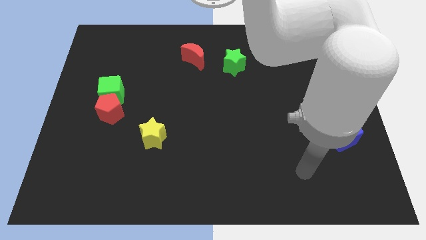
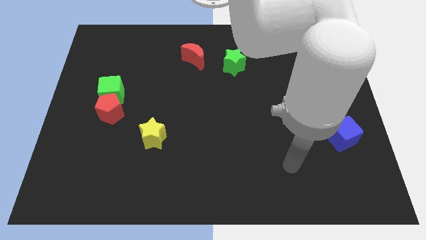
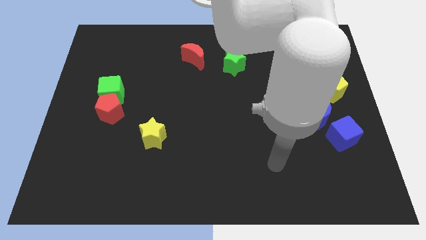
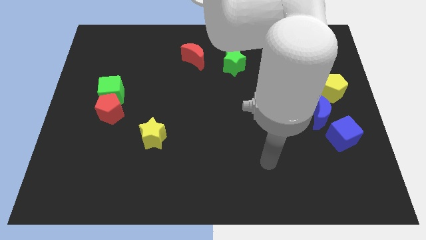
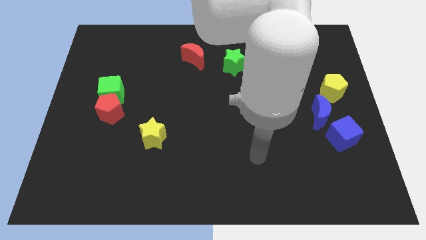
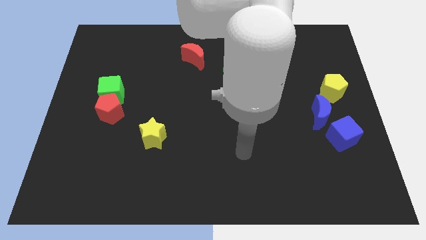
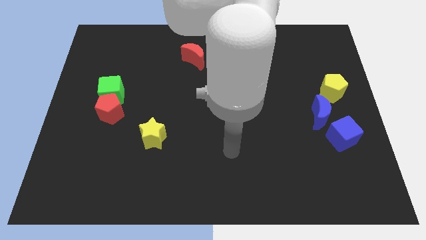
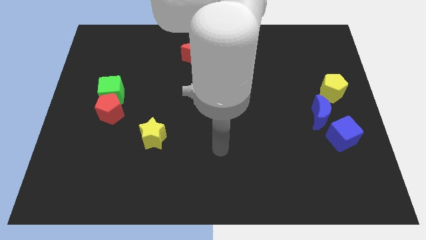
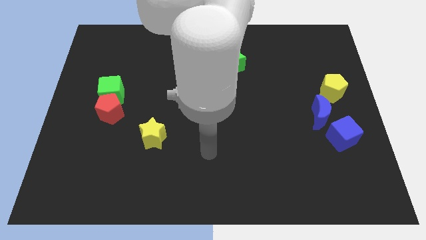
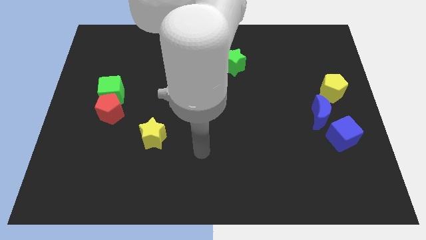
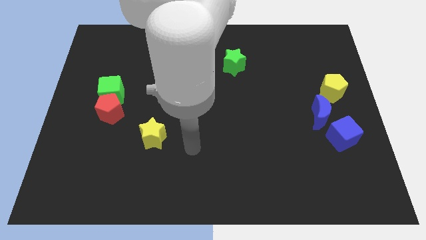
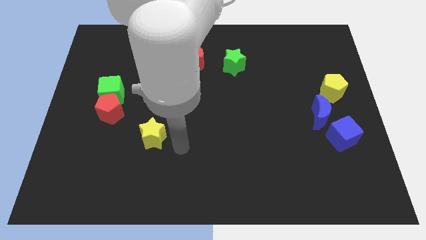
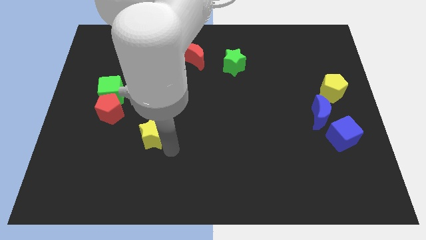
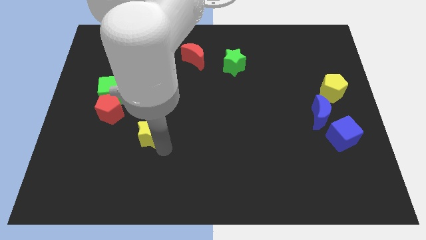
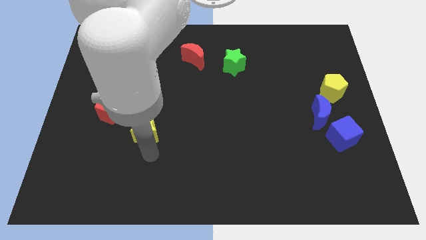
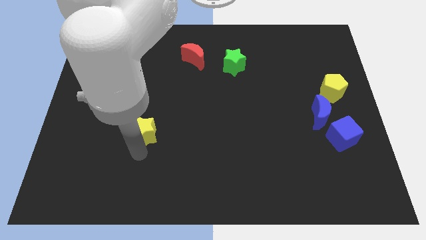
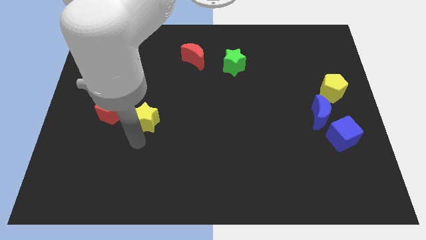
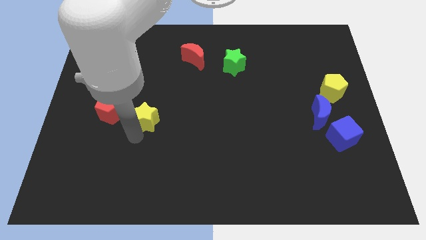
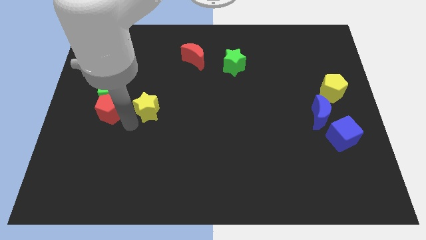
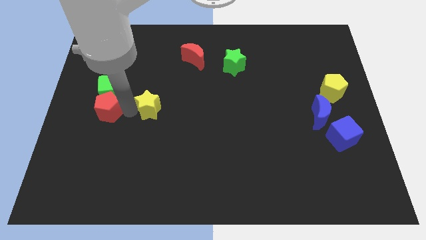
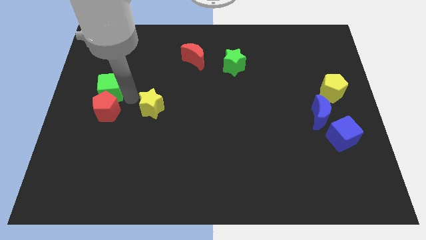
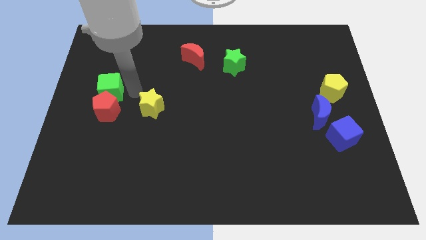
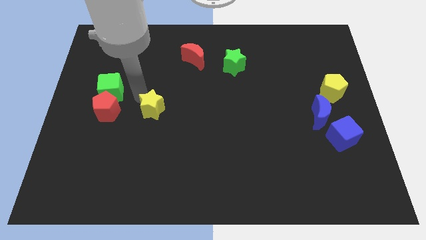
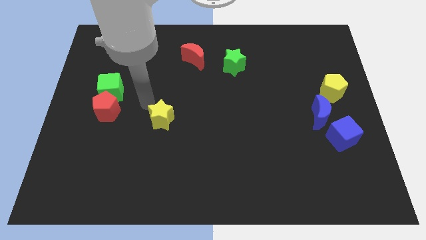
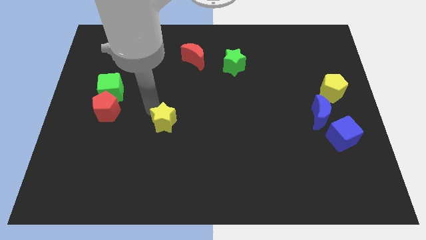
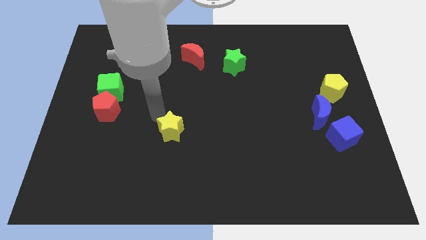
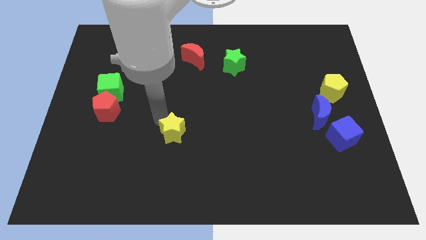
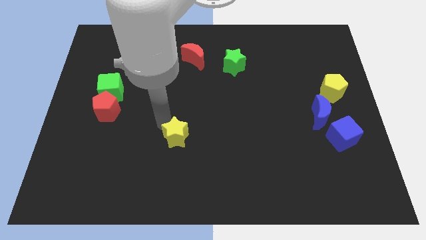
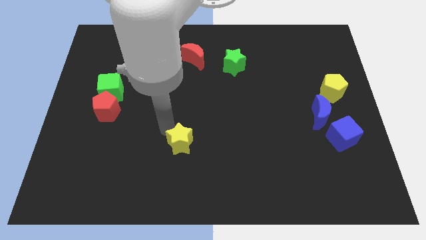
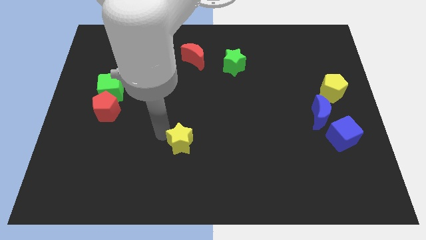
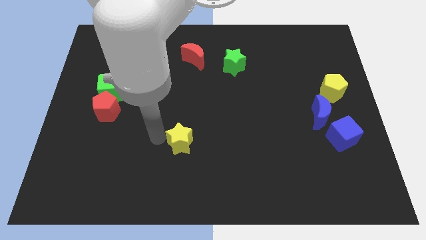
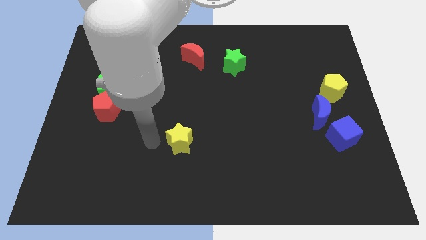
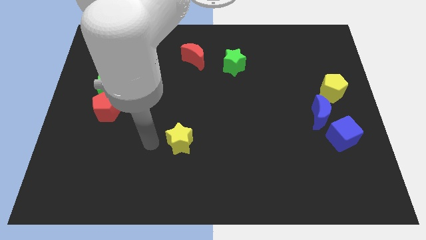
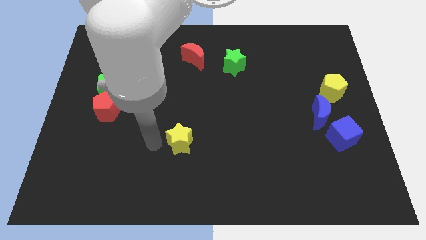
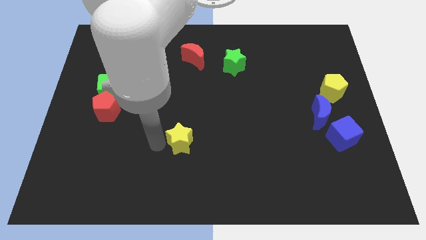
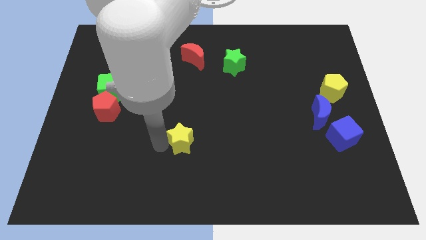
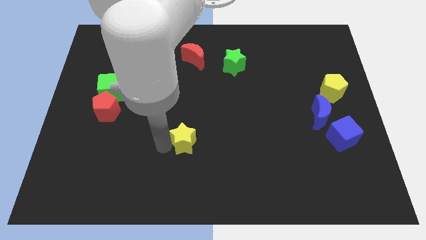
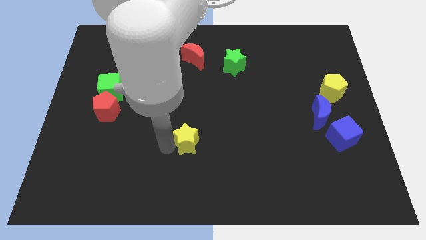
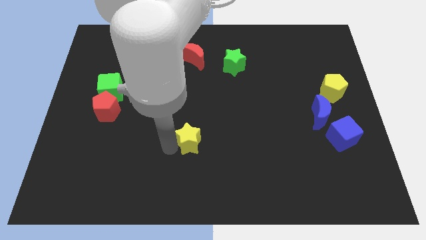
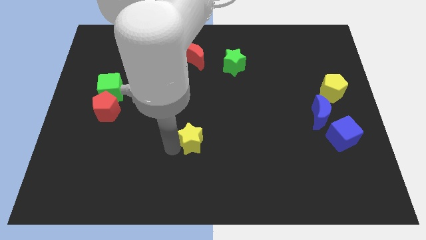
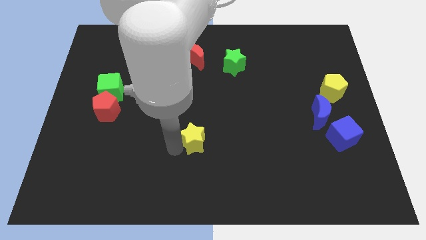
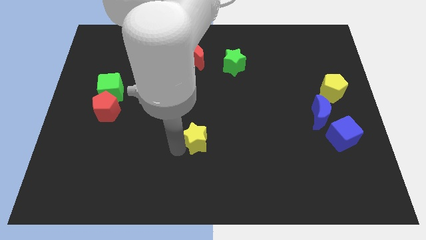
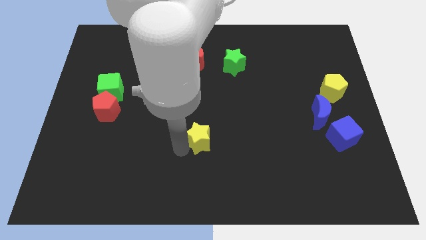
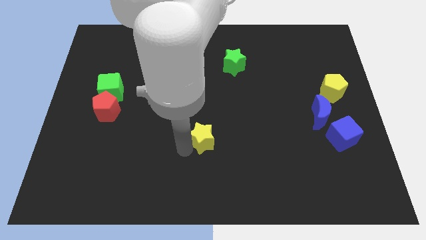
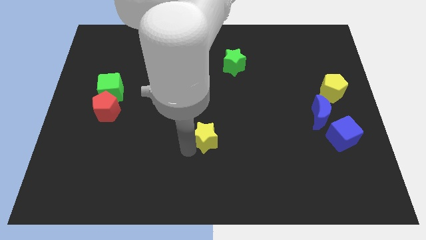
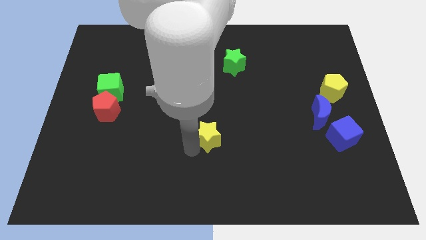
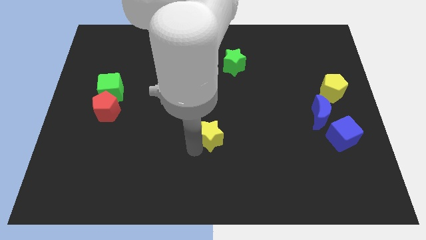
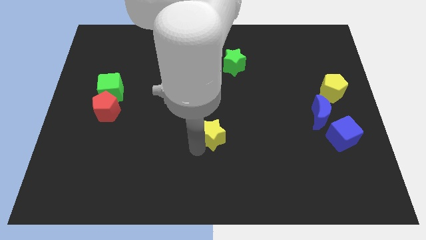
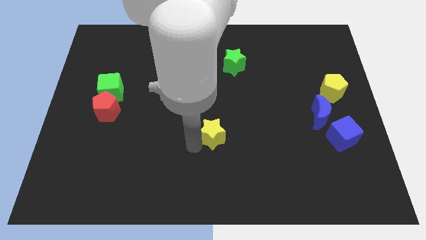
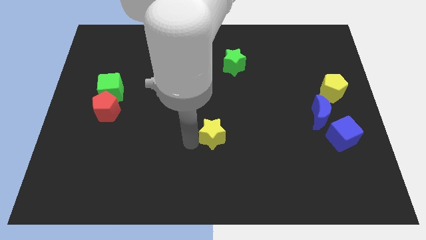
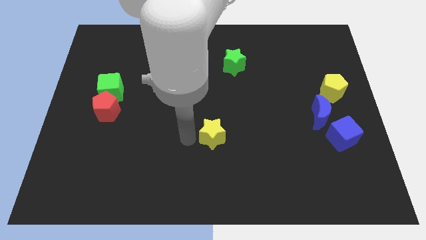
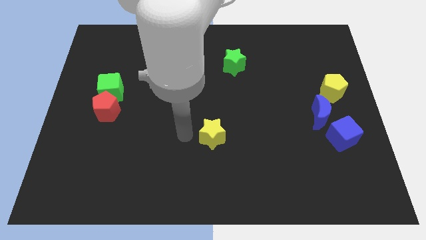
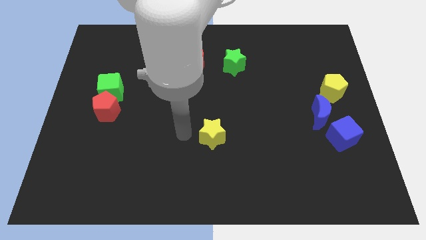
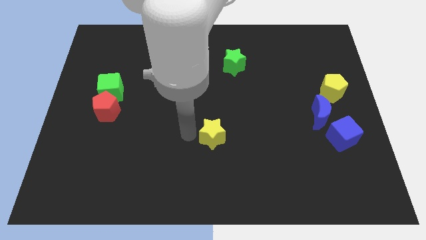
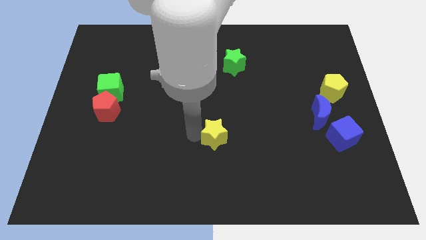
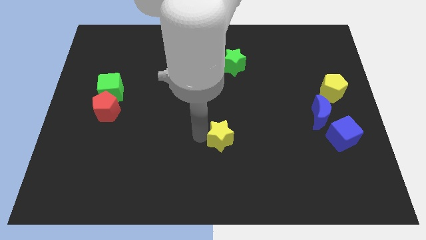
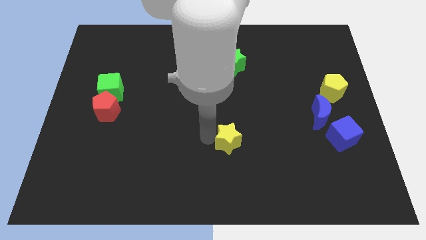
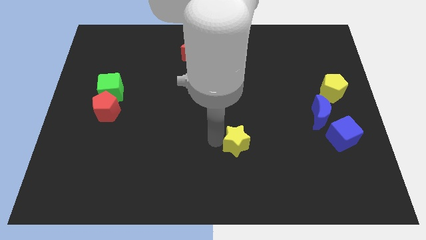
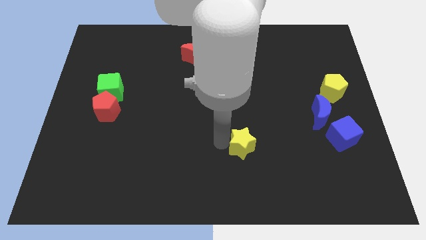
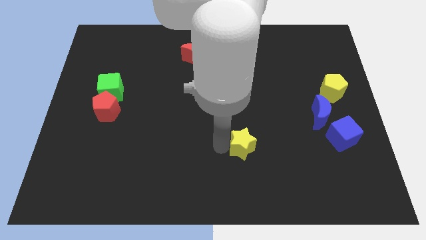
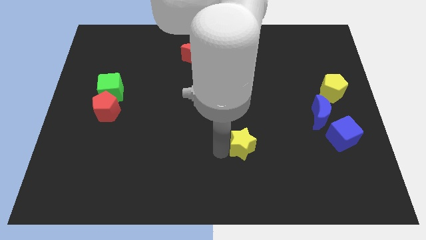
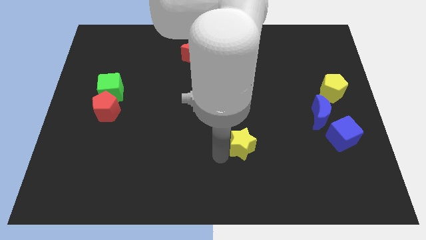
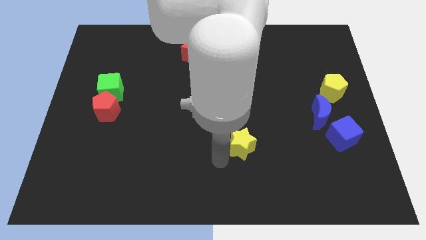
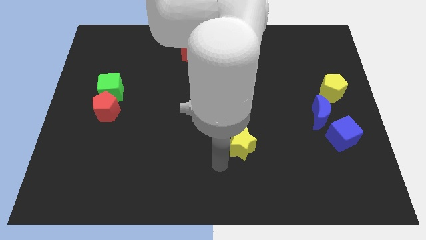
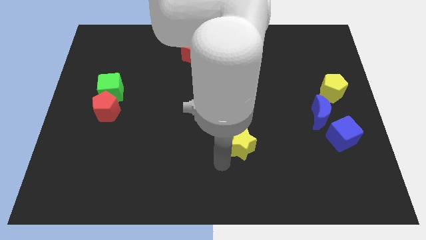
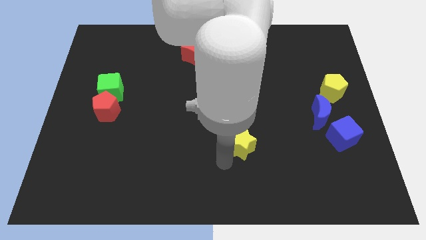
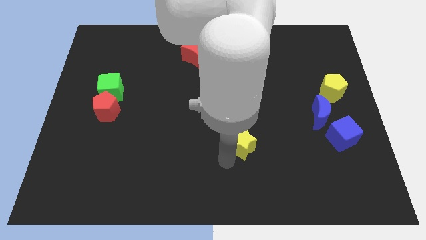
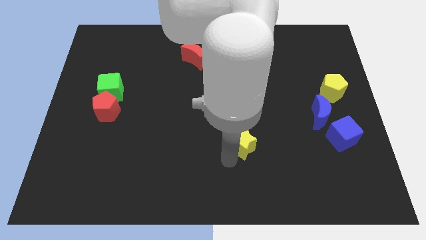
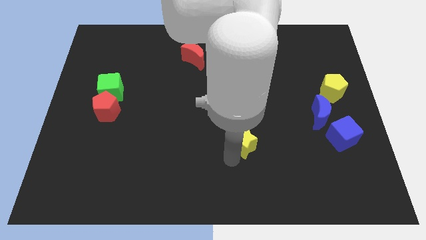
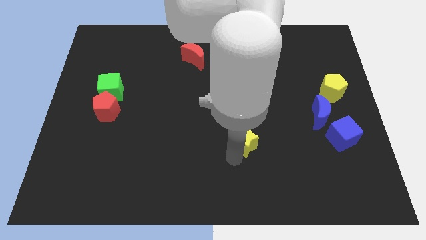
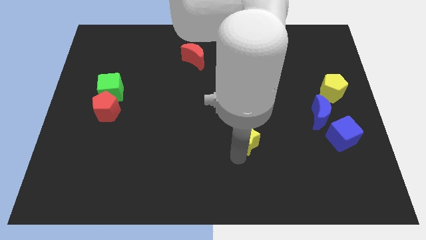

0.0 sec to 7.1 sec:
move the yellow star right

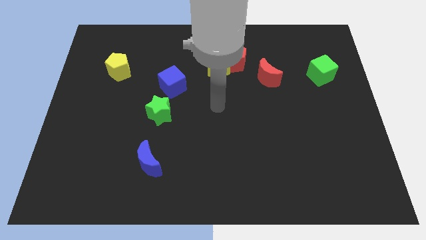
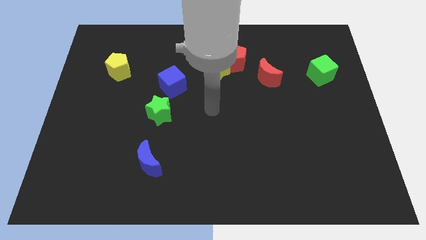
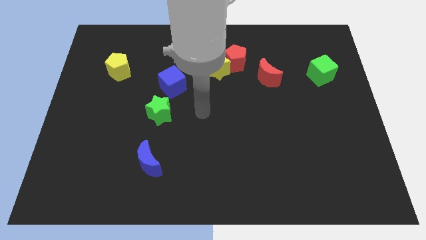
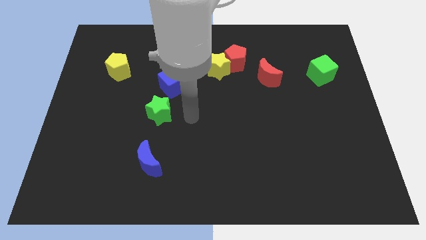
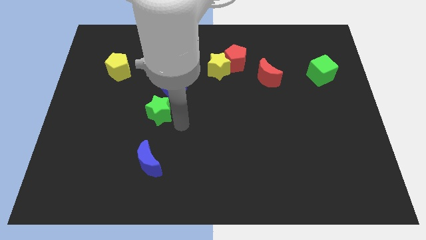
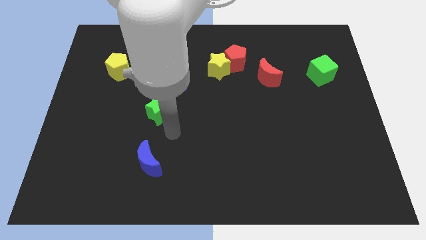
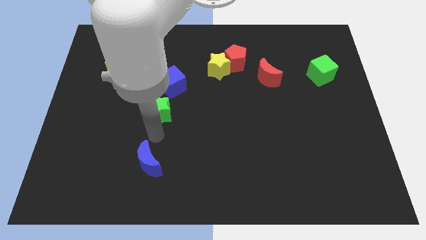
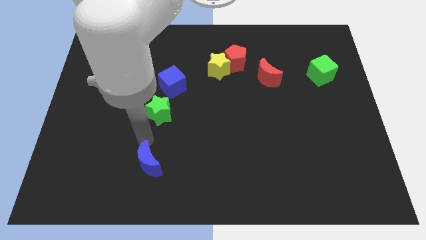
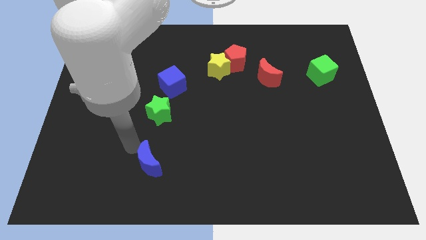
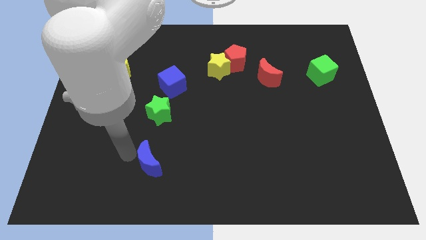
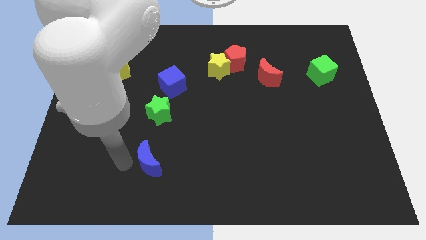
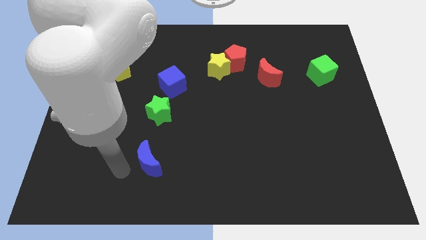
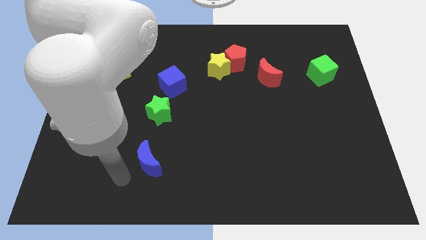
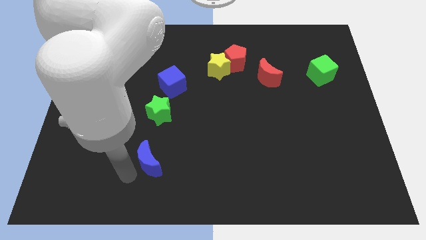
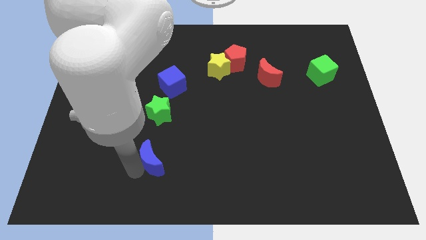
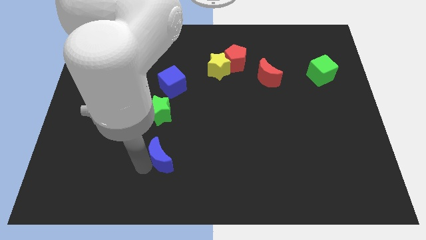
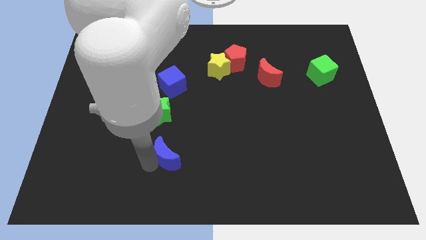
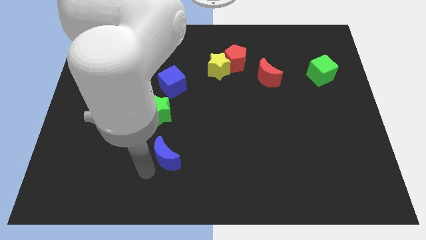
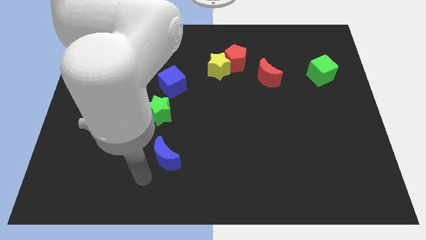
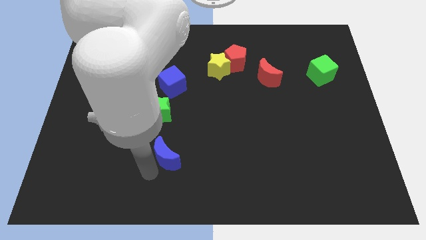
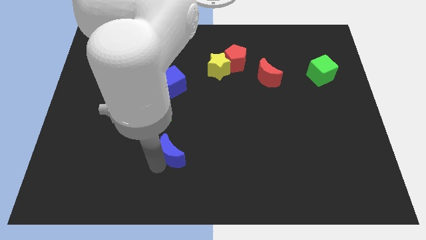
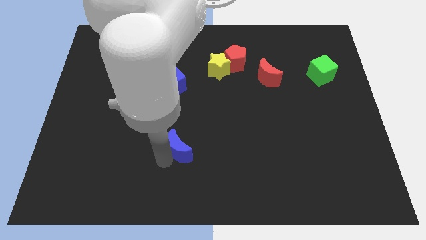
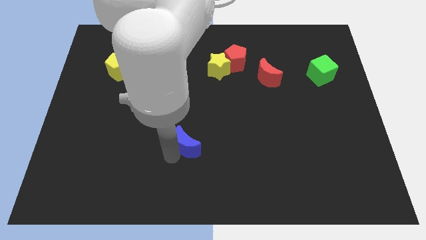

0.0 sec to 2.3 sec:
slightly slide the blue moon upwards and right
